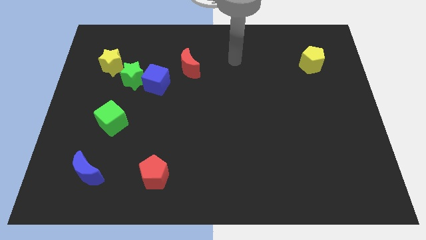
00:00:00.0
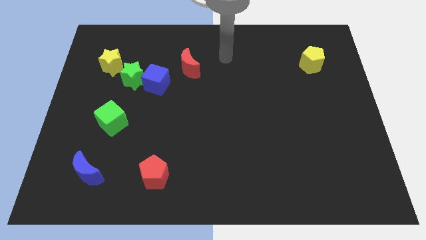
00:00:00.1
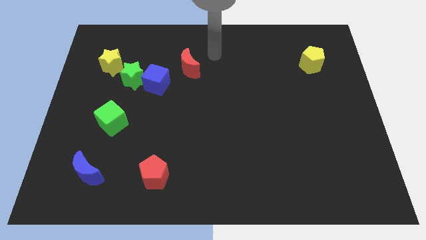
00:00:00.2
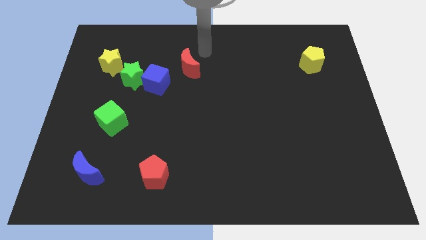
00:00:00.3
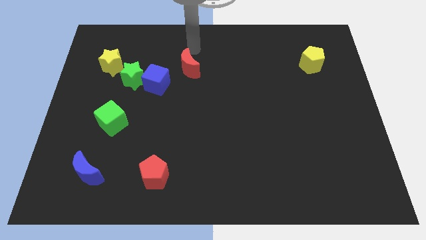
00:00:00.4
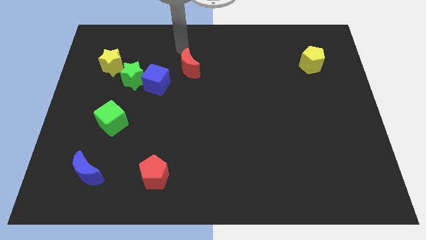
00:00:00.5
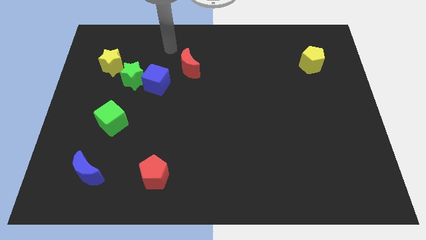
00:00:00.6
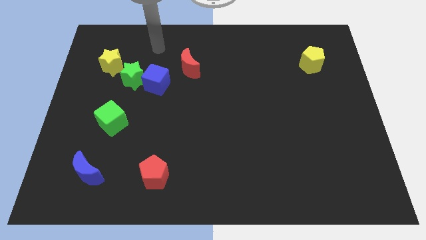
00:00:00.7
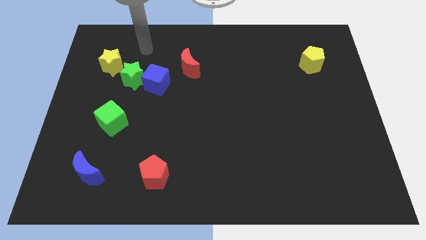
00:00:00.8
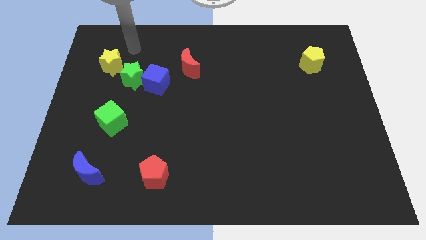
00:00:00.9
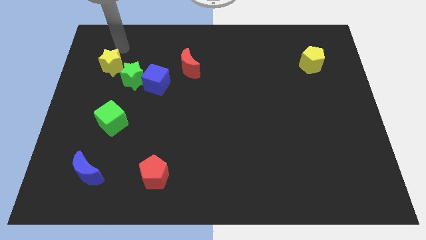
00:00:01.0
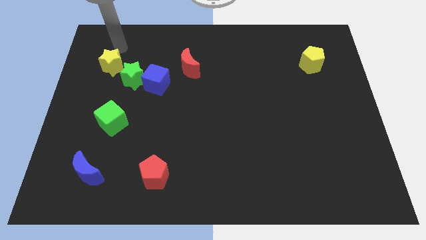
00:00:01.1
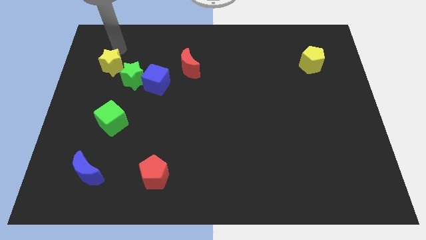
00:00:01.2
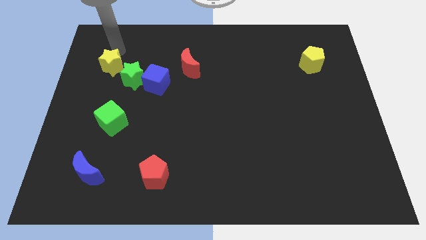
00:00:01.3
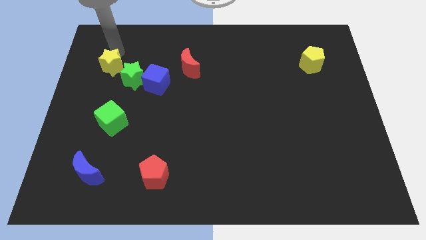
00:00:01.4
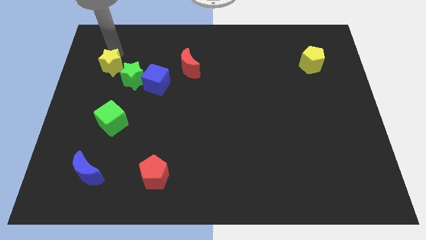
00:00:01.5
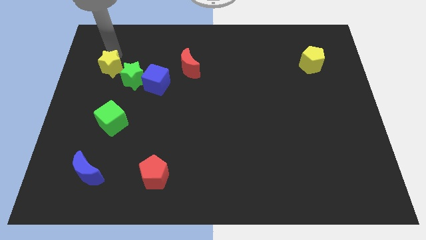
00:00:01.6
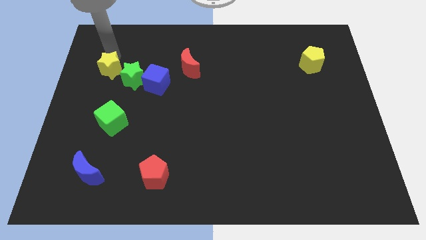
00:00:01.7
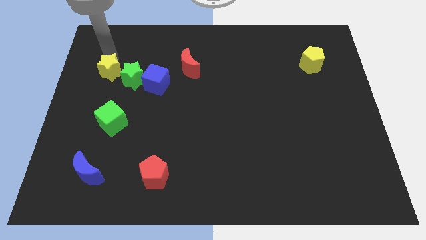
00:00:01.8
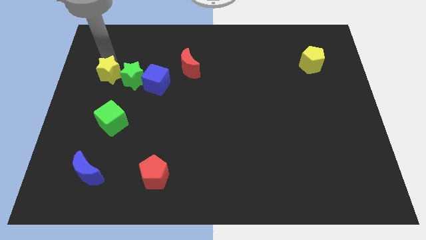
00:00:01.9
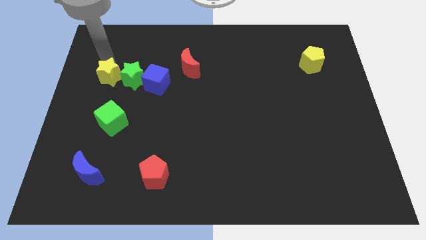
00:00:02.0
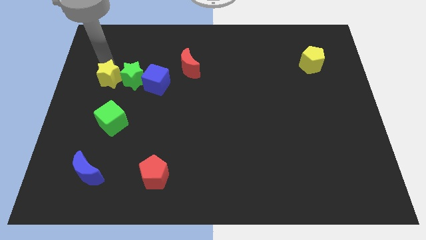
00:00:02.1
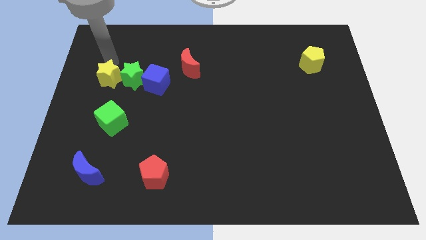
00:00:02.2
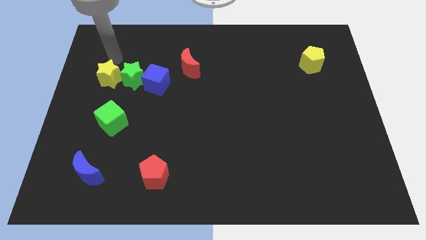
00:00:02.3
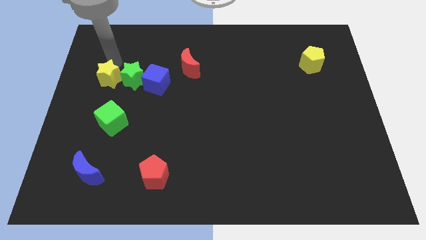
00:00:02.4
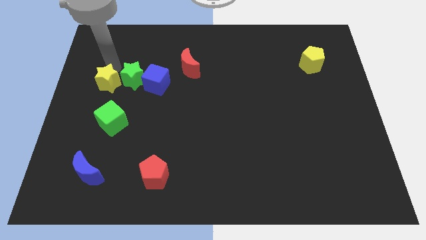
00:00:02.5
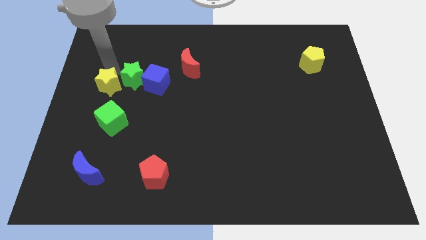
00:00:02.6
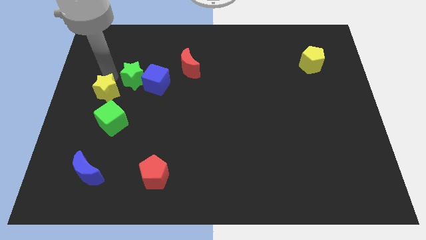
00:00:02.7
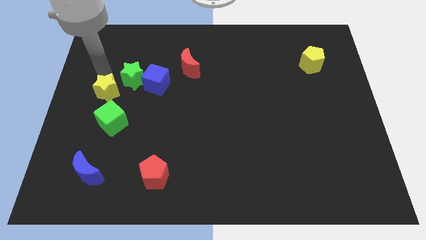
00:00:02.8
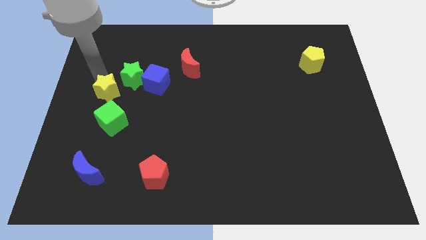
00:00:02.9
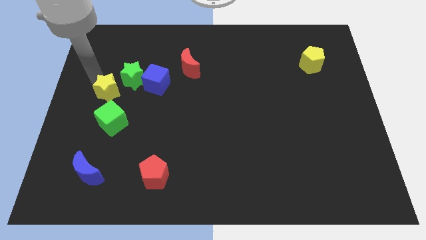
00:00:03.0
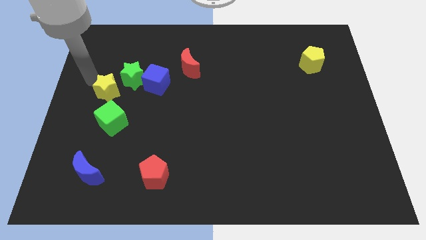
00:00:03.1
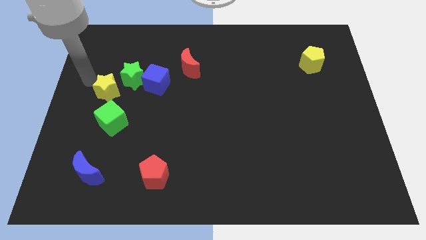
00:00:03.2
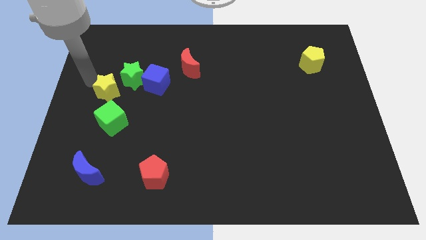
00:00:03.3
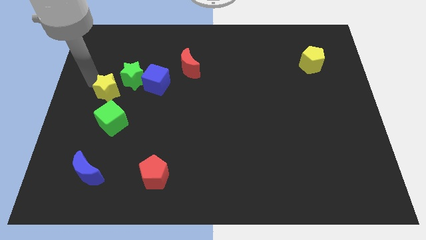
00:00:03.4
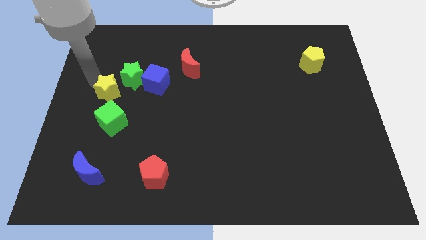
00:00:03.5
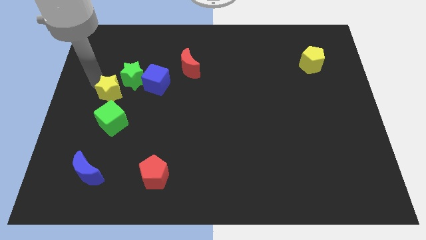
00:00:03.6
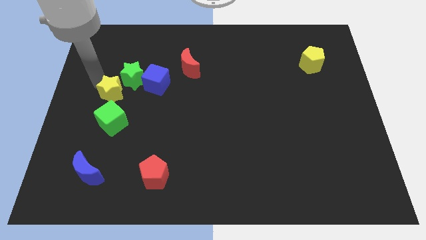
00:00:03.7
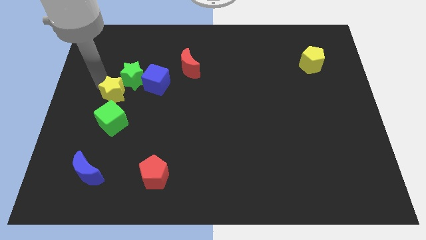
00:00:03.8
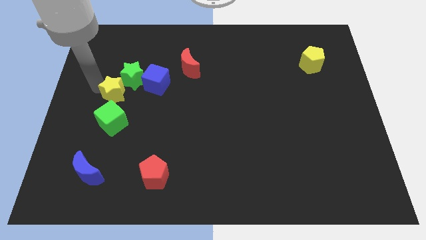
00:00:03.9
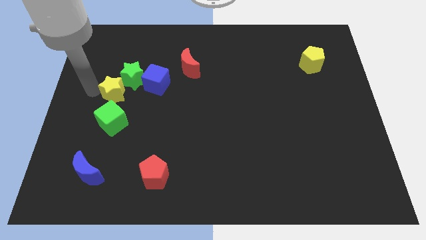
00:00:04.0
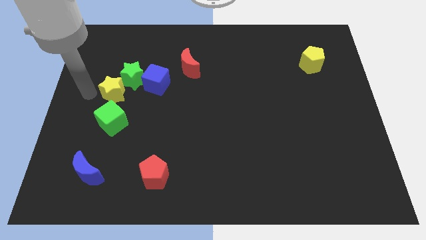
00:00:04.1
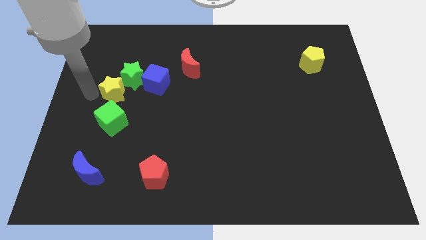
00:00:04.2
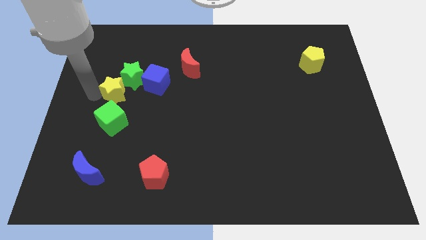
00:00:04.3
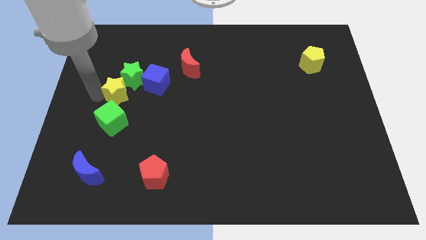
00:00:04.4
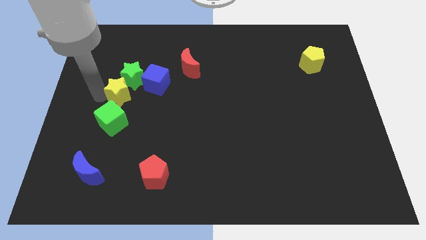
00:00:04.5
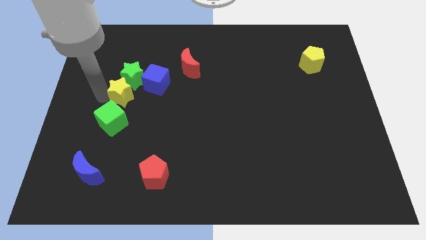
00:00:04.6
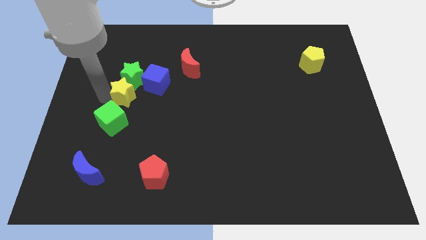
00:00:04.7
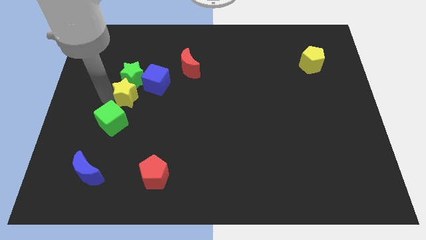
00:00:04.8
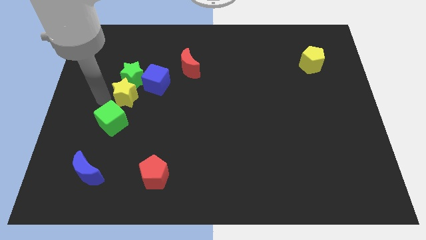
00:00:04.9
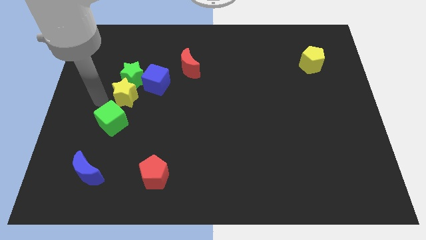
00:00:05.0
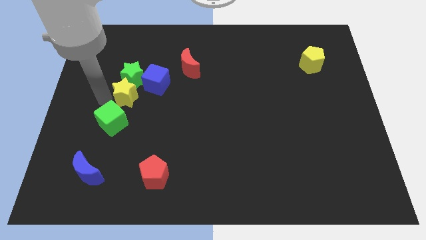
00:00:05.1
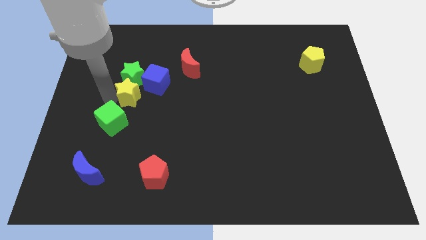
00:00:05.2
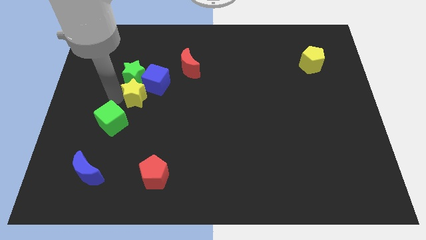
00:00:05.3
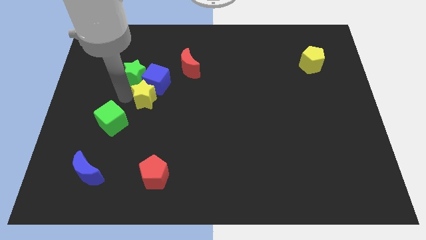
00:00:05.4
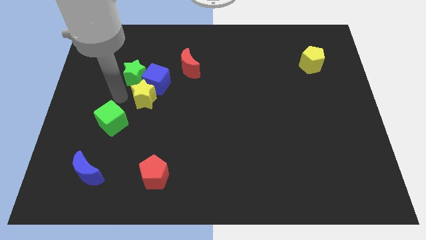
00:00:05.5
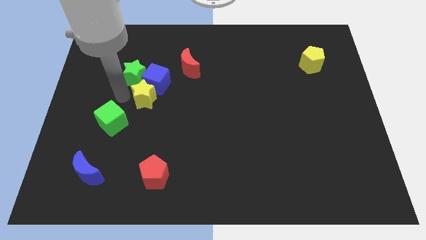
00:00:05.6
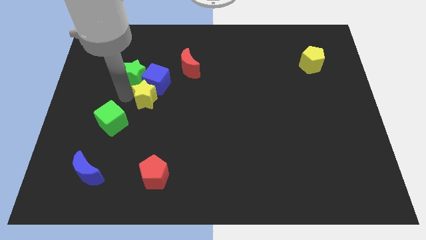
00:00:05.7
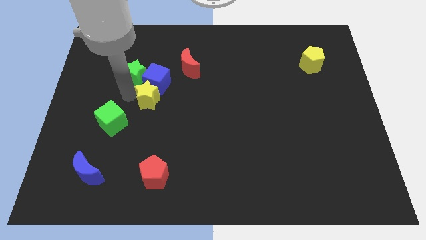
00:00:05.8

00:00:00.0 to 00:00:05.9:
slide the yellow star to the bottom right side of the blue cube

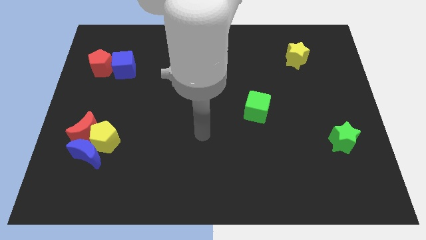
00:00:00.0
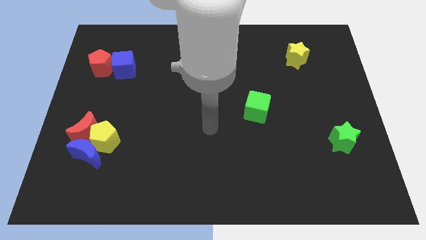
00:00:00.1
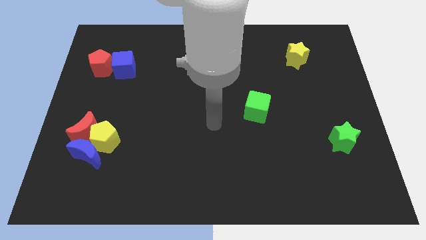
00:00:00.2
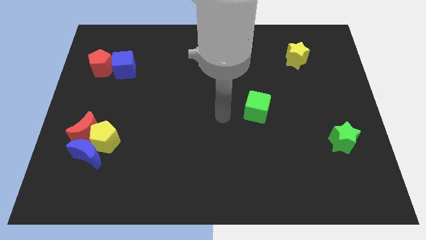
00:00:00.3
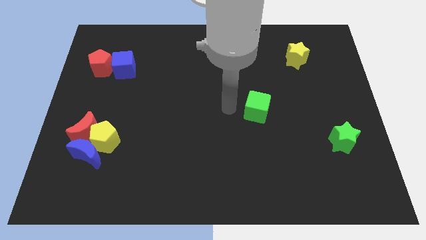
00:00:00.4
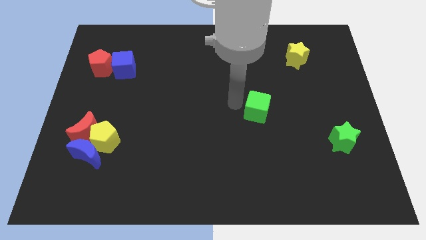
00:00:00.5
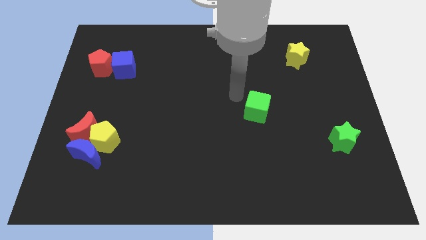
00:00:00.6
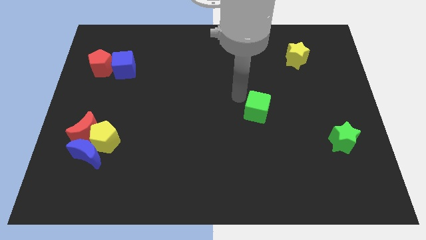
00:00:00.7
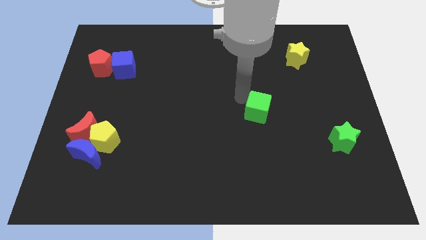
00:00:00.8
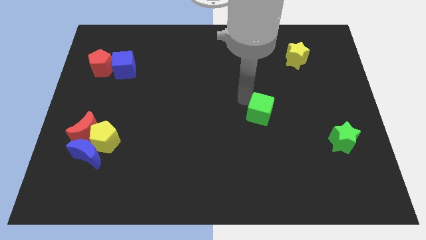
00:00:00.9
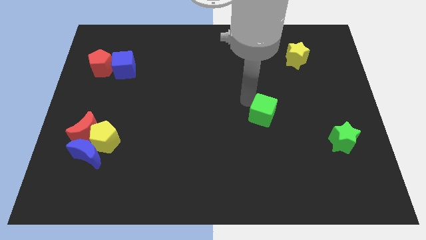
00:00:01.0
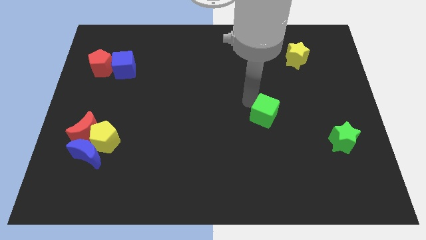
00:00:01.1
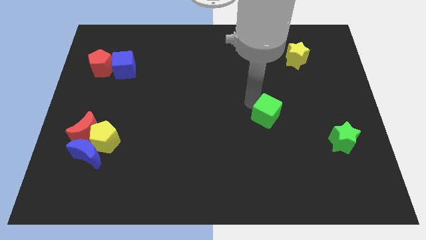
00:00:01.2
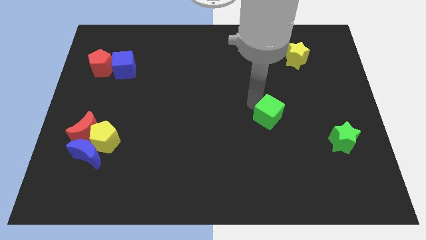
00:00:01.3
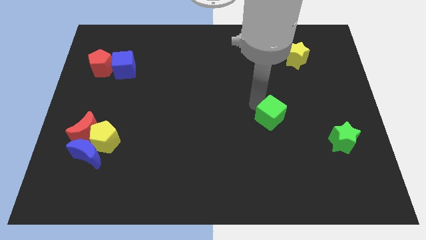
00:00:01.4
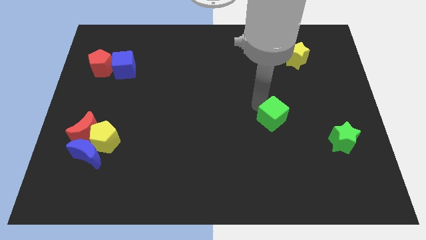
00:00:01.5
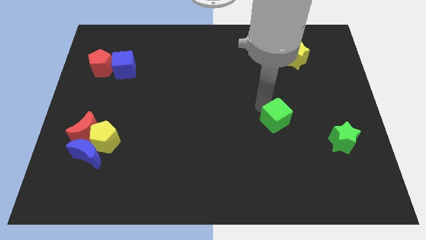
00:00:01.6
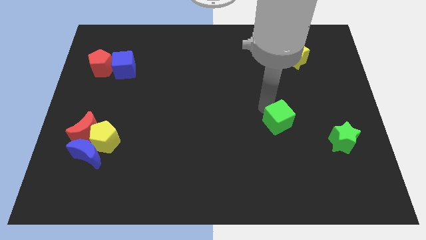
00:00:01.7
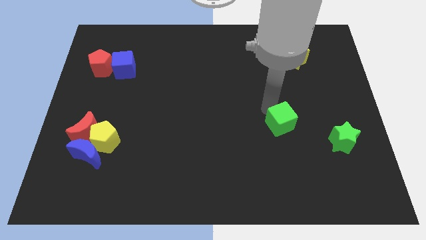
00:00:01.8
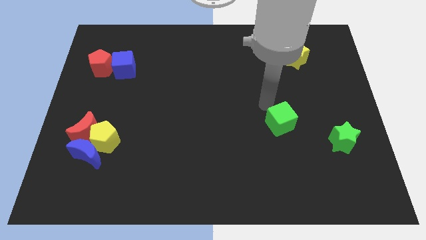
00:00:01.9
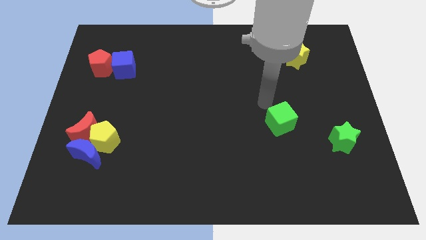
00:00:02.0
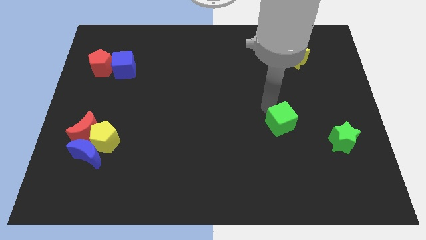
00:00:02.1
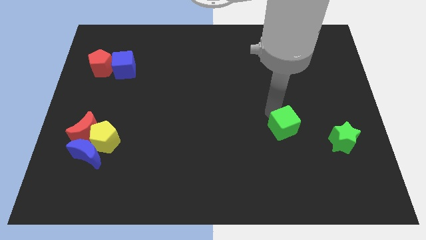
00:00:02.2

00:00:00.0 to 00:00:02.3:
slide the green cube left of the green star
